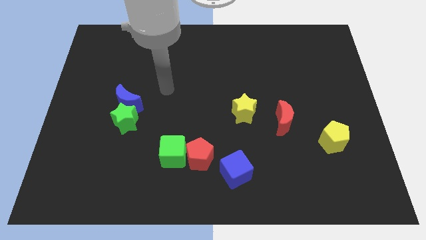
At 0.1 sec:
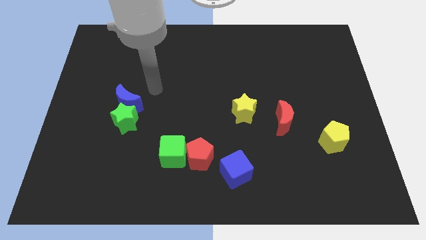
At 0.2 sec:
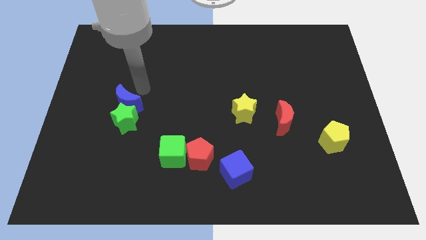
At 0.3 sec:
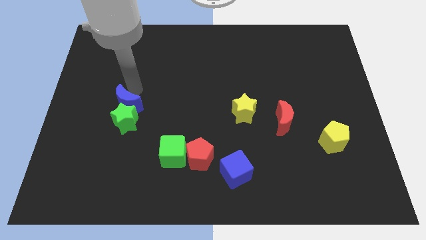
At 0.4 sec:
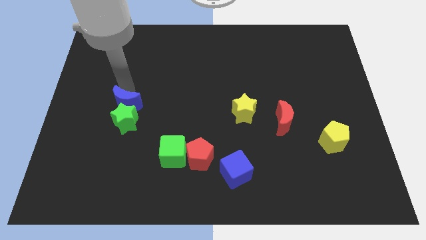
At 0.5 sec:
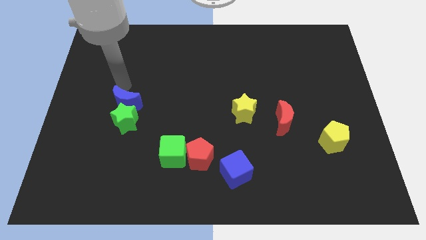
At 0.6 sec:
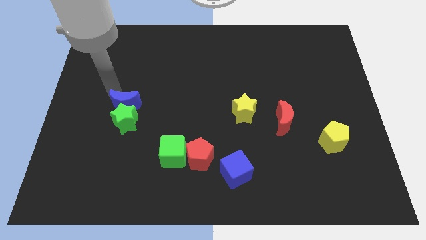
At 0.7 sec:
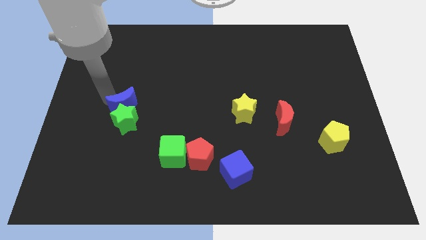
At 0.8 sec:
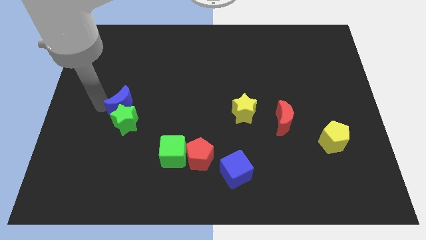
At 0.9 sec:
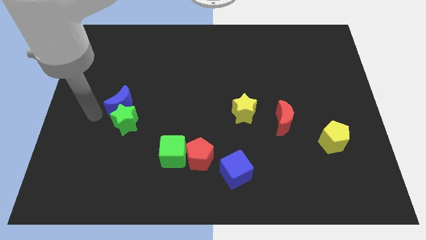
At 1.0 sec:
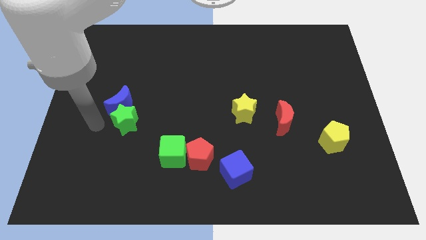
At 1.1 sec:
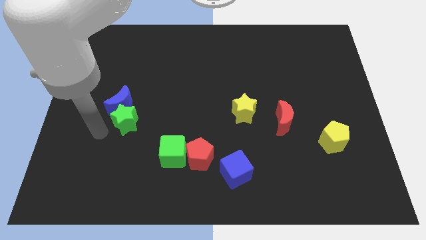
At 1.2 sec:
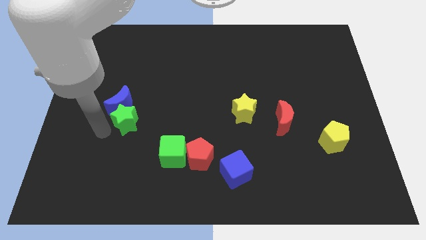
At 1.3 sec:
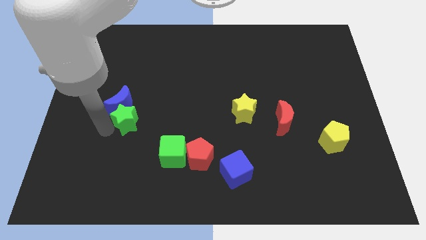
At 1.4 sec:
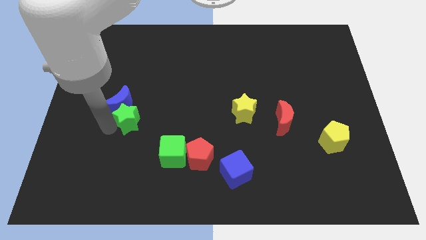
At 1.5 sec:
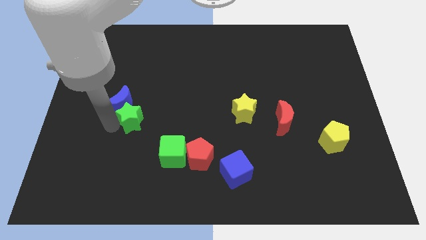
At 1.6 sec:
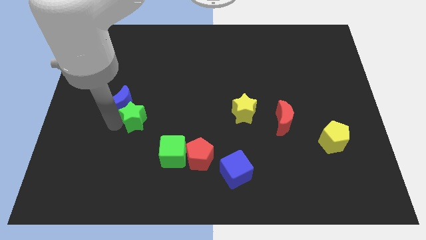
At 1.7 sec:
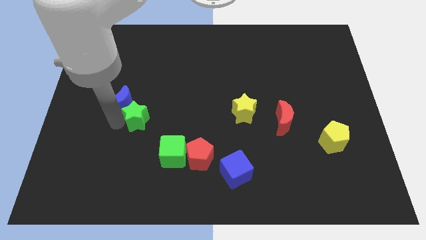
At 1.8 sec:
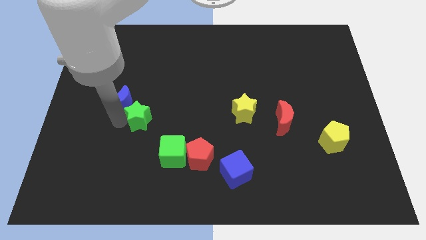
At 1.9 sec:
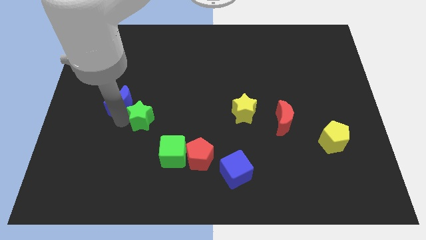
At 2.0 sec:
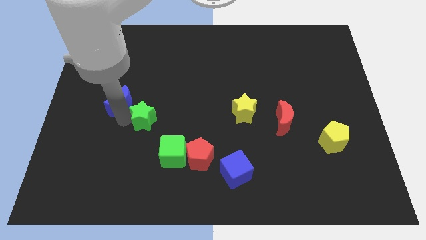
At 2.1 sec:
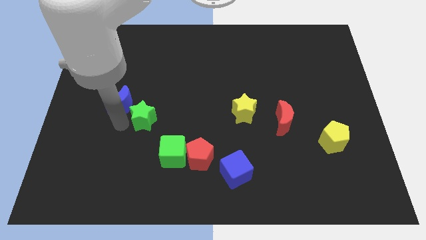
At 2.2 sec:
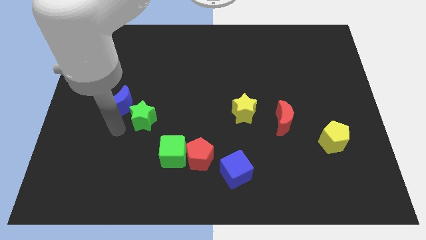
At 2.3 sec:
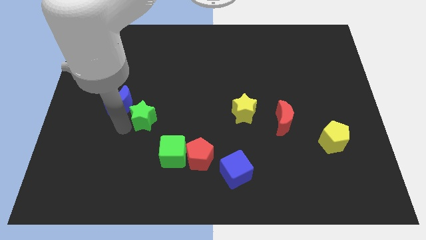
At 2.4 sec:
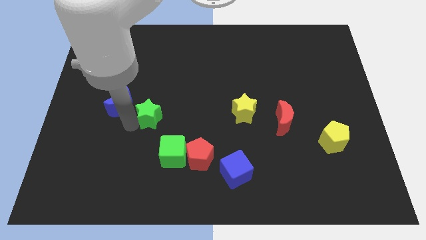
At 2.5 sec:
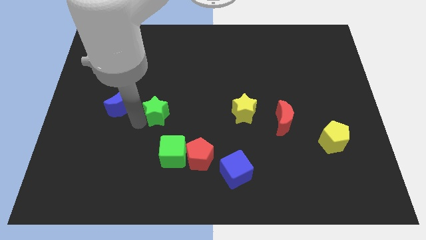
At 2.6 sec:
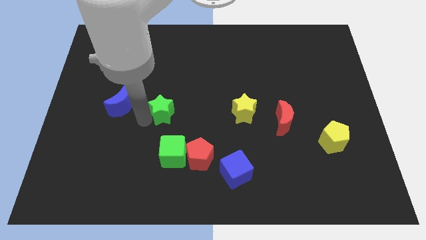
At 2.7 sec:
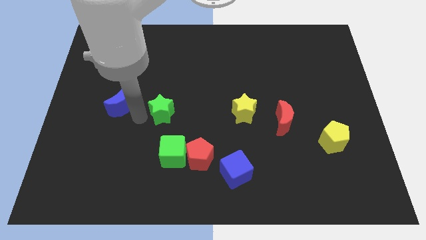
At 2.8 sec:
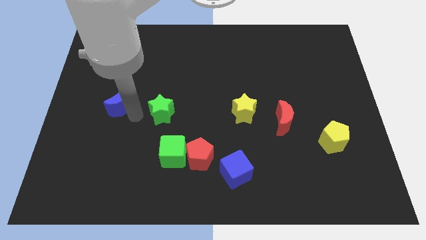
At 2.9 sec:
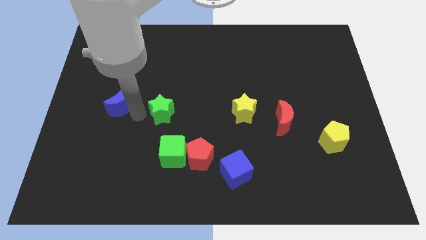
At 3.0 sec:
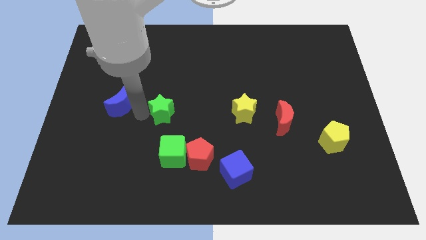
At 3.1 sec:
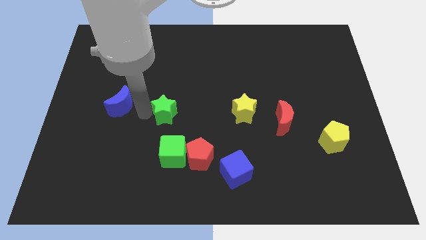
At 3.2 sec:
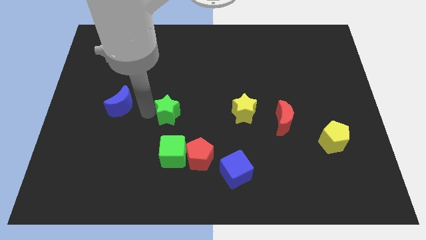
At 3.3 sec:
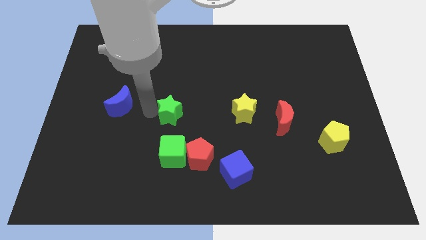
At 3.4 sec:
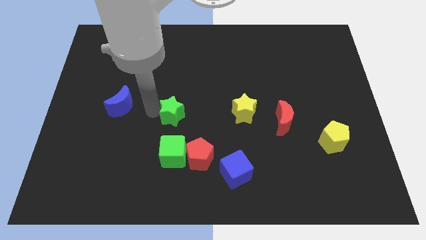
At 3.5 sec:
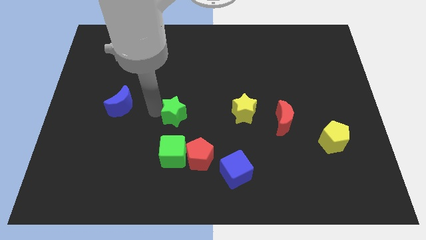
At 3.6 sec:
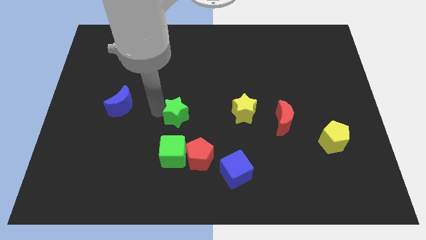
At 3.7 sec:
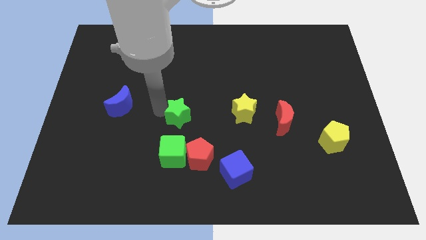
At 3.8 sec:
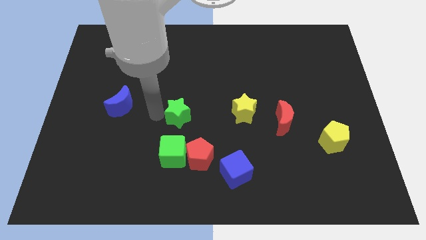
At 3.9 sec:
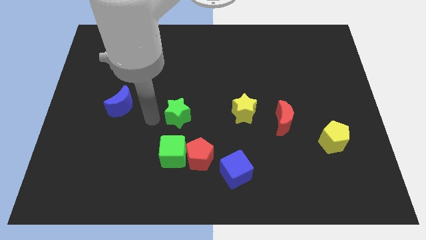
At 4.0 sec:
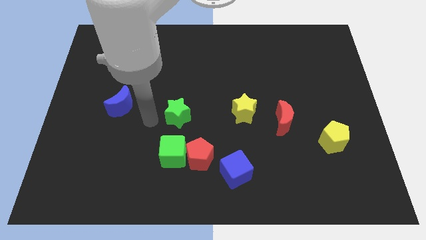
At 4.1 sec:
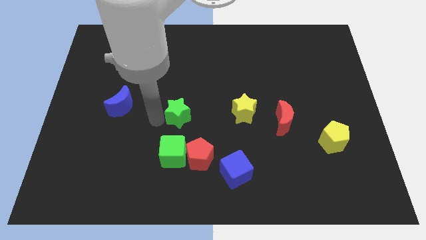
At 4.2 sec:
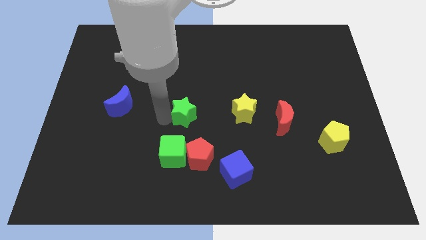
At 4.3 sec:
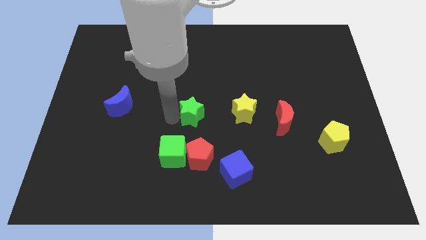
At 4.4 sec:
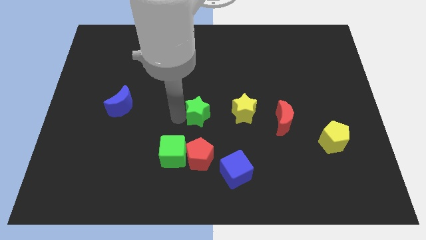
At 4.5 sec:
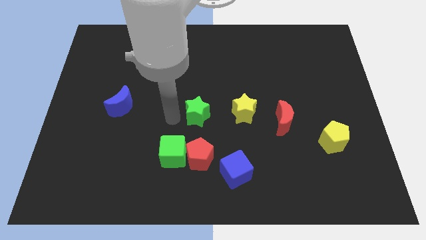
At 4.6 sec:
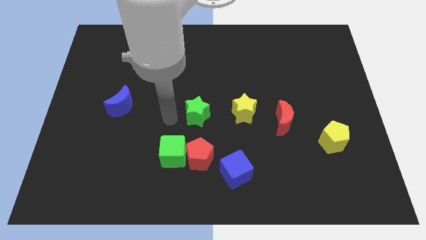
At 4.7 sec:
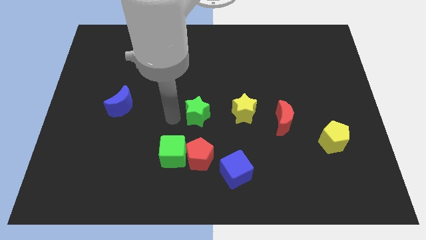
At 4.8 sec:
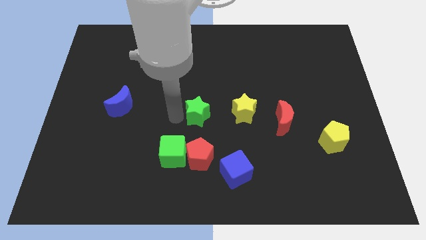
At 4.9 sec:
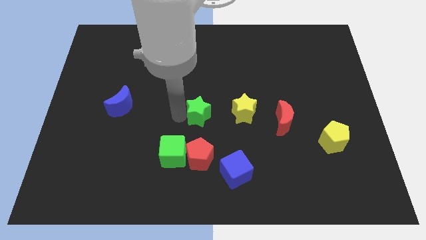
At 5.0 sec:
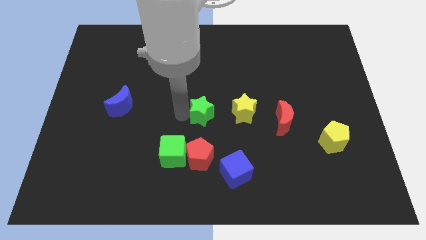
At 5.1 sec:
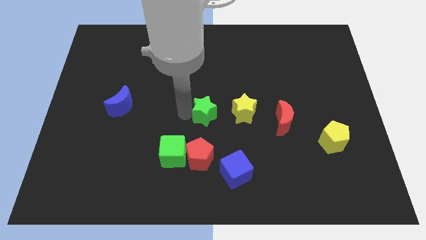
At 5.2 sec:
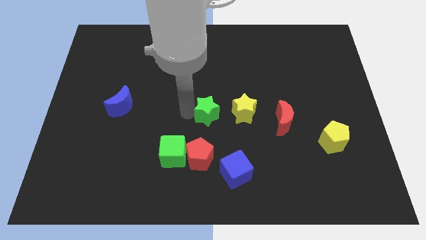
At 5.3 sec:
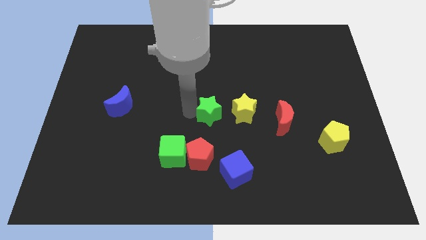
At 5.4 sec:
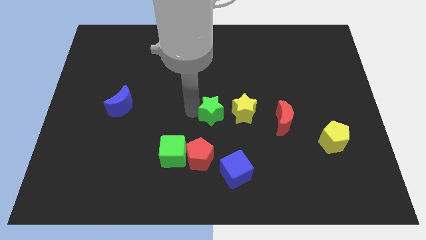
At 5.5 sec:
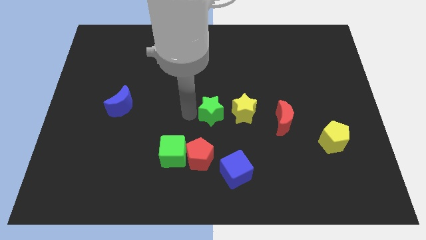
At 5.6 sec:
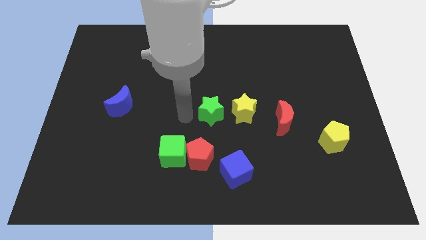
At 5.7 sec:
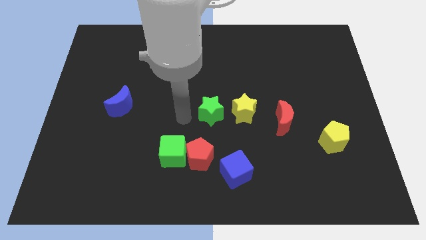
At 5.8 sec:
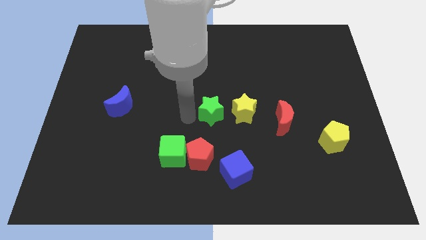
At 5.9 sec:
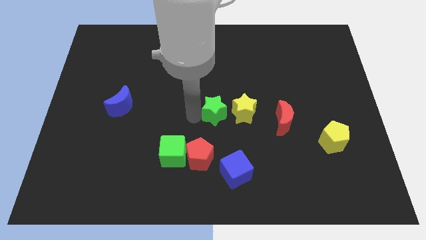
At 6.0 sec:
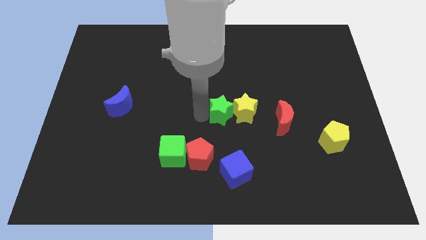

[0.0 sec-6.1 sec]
move the green star towards the yellow star

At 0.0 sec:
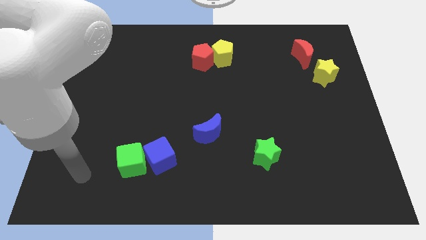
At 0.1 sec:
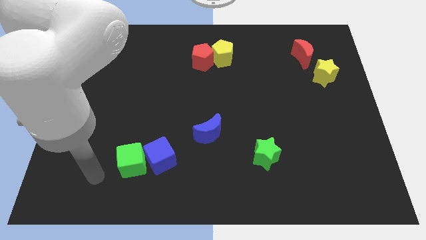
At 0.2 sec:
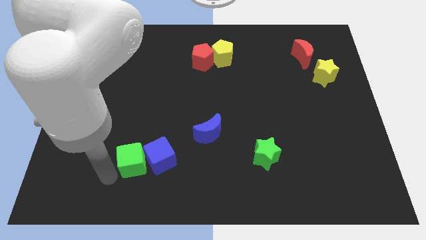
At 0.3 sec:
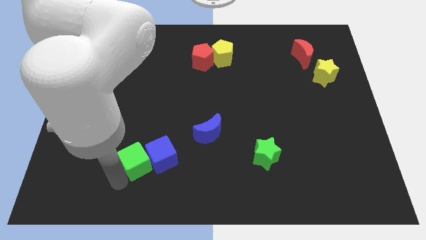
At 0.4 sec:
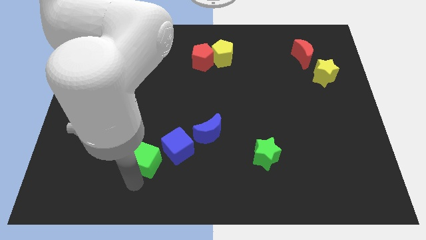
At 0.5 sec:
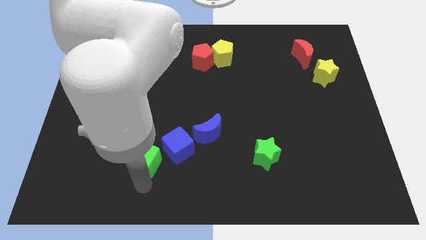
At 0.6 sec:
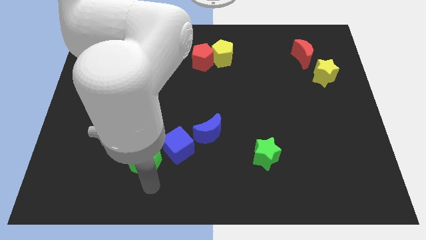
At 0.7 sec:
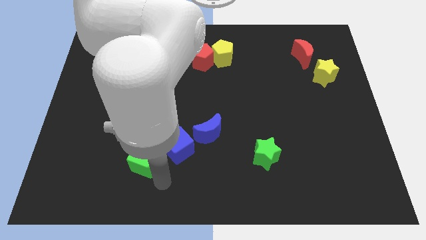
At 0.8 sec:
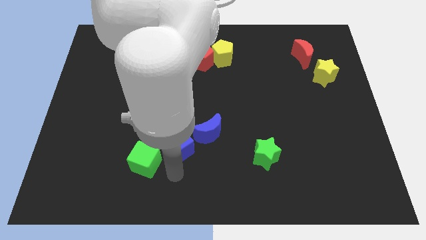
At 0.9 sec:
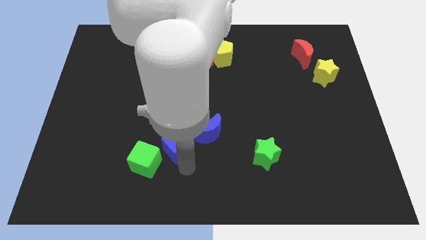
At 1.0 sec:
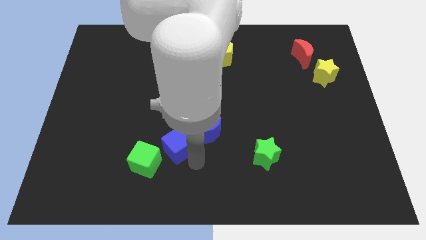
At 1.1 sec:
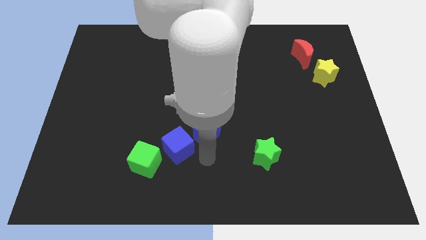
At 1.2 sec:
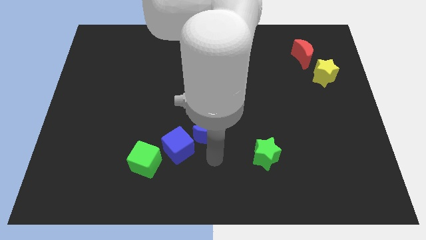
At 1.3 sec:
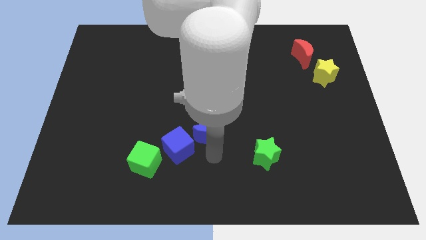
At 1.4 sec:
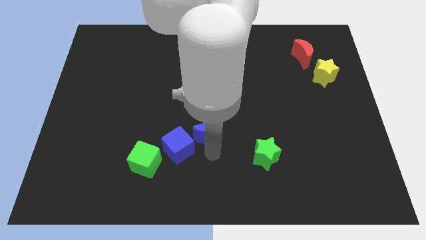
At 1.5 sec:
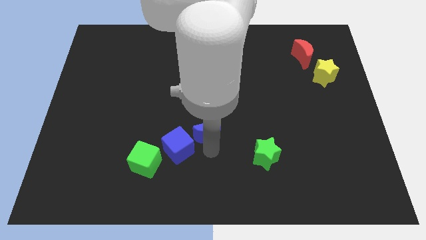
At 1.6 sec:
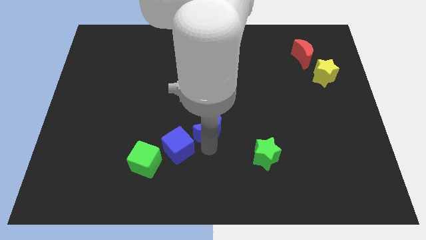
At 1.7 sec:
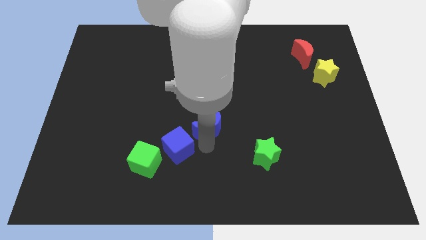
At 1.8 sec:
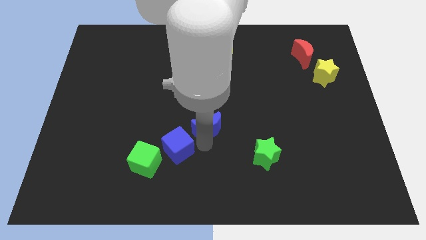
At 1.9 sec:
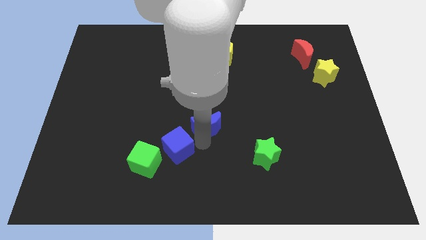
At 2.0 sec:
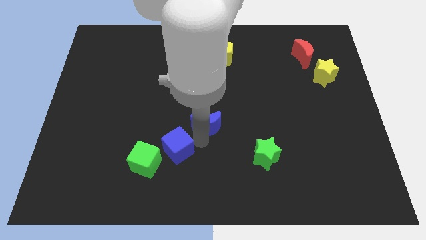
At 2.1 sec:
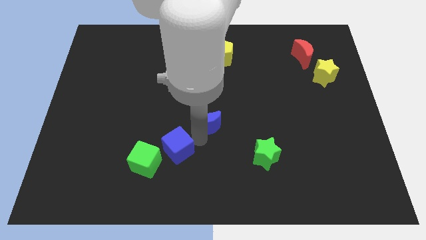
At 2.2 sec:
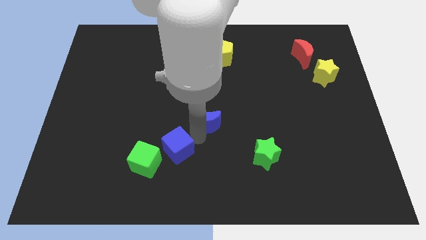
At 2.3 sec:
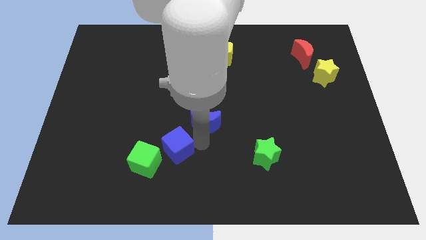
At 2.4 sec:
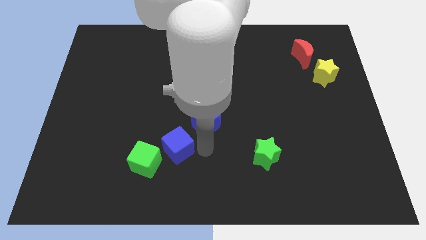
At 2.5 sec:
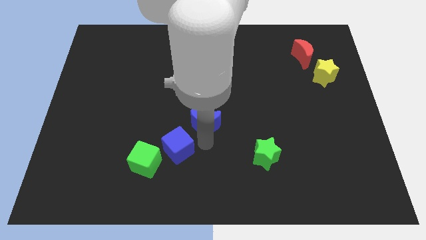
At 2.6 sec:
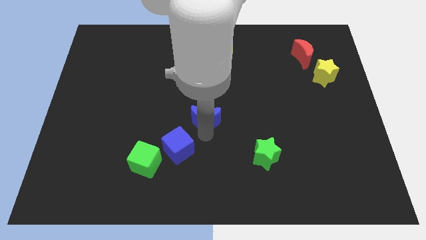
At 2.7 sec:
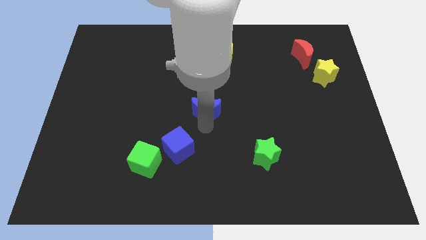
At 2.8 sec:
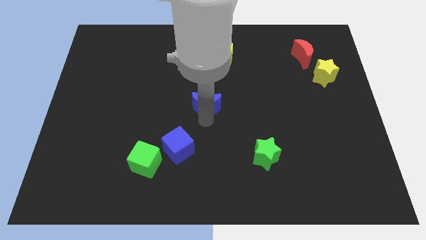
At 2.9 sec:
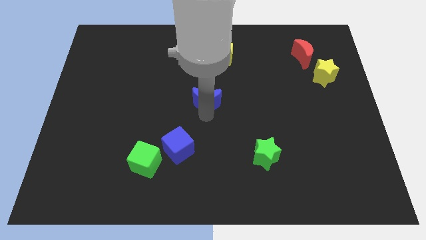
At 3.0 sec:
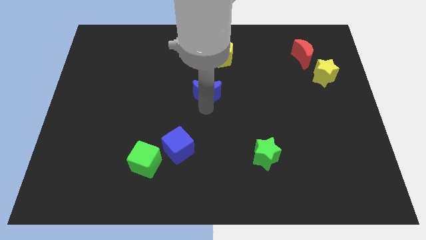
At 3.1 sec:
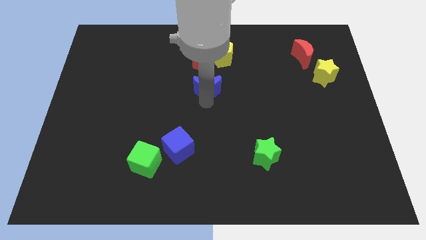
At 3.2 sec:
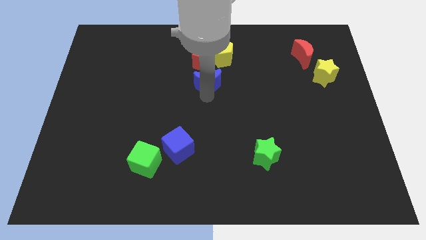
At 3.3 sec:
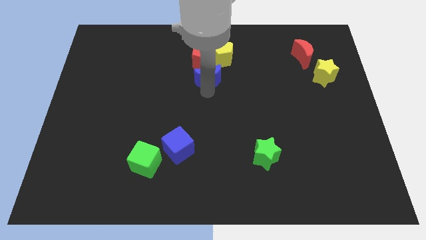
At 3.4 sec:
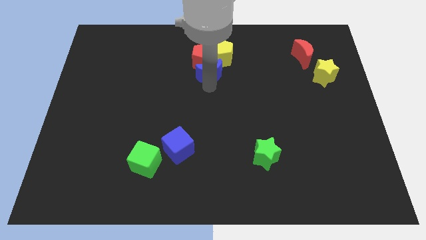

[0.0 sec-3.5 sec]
push the blue moon close to the red pentagon
